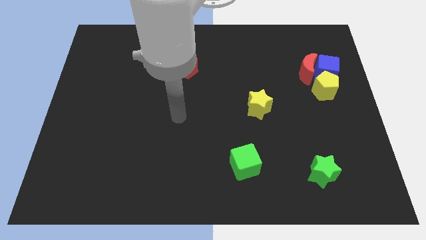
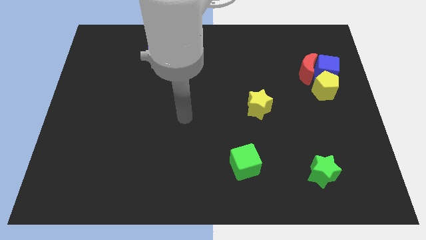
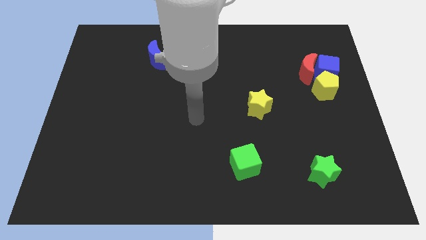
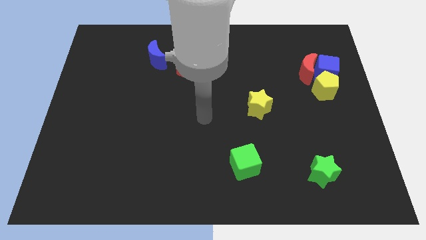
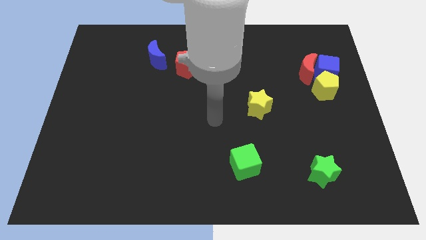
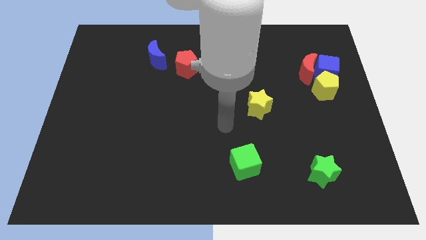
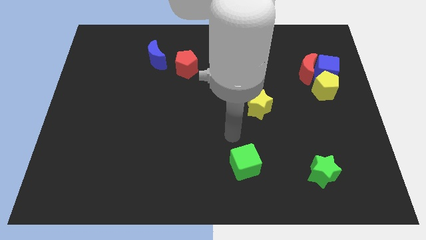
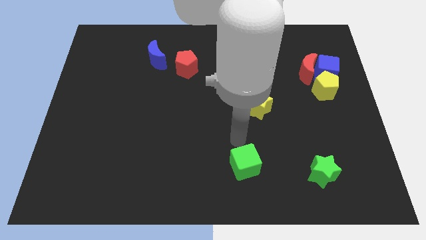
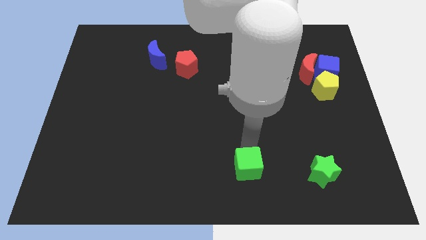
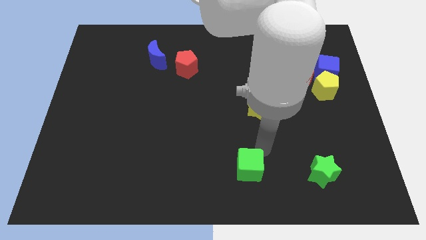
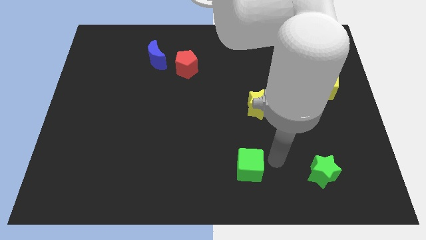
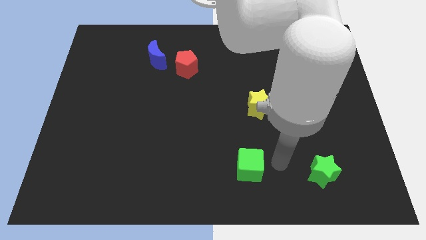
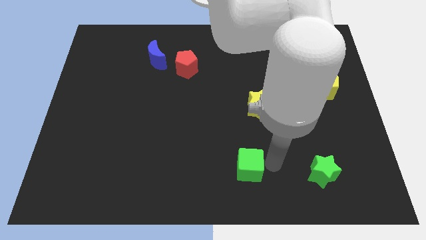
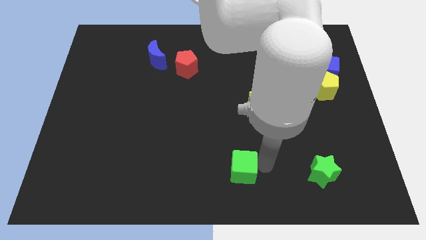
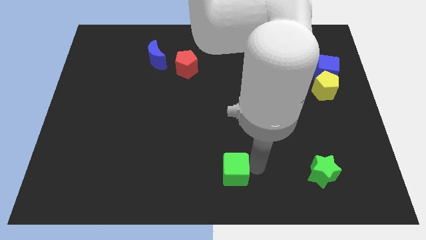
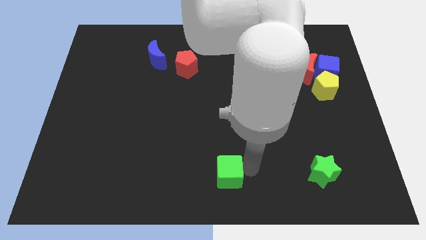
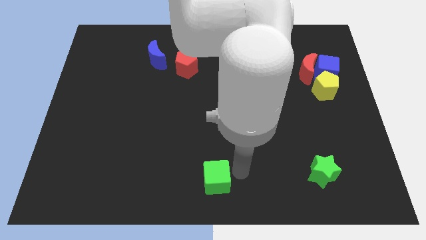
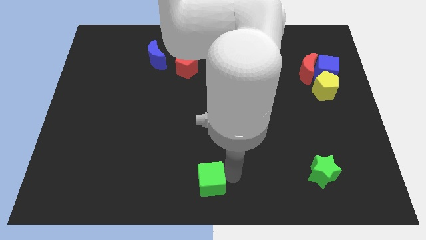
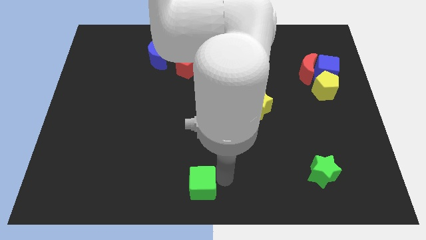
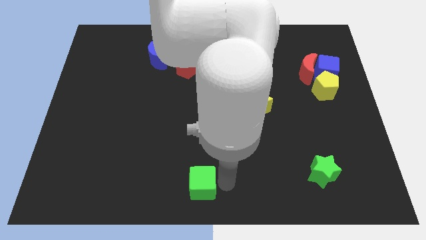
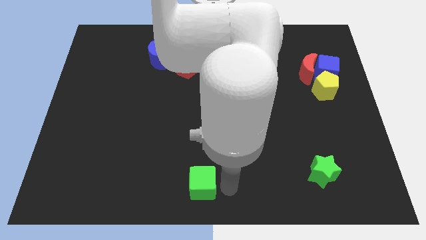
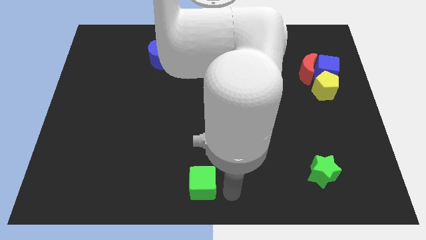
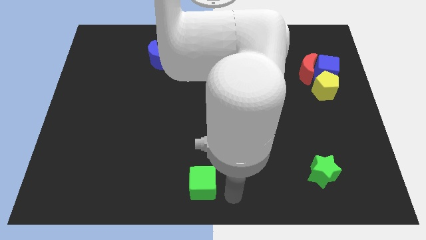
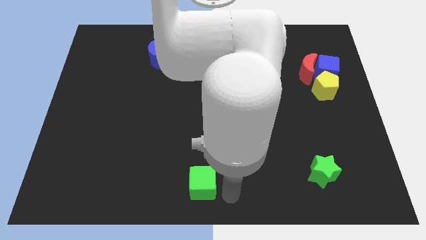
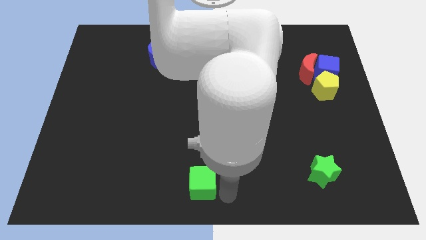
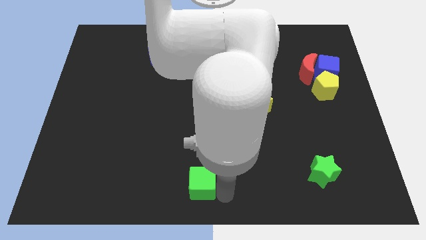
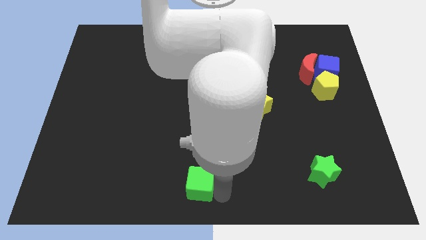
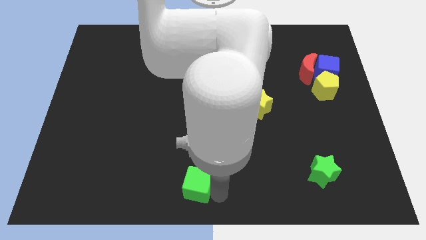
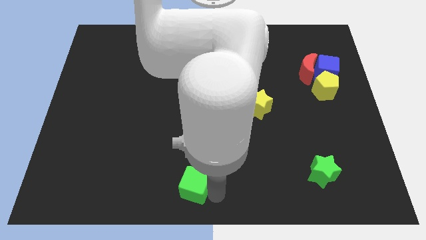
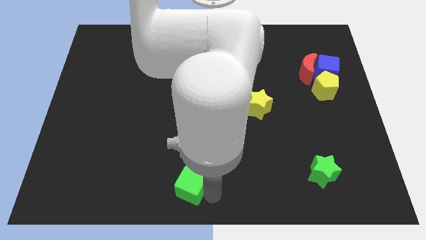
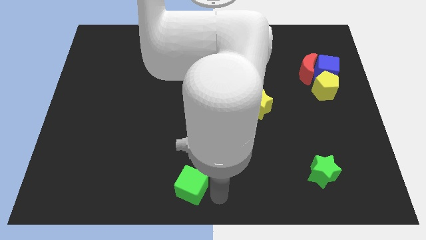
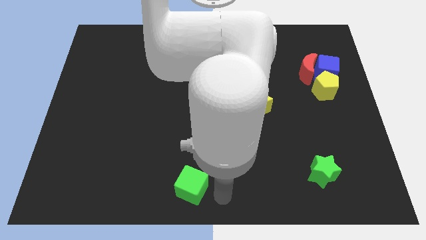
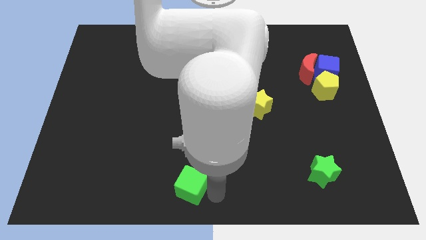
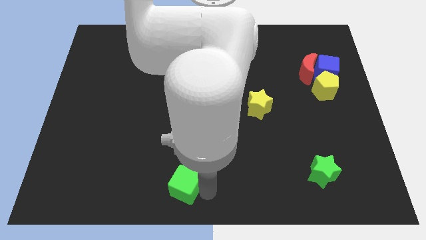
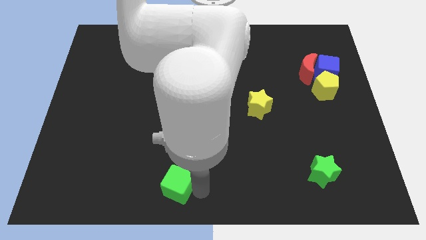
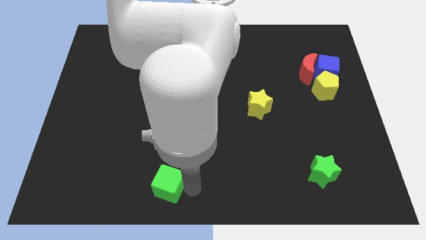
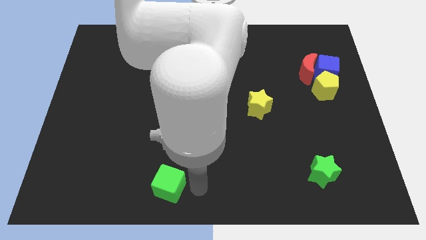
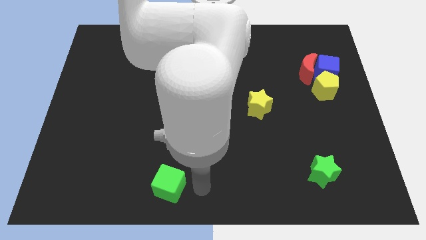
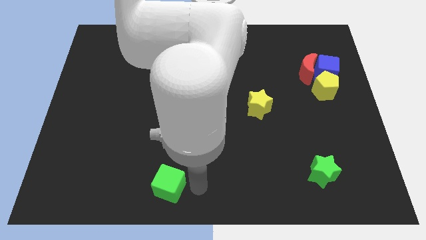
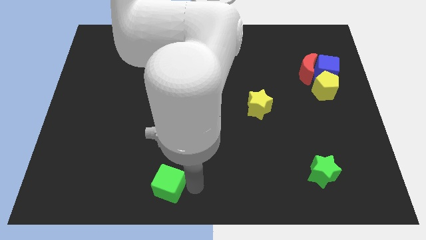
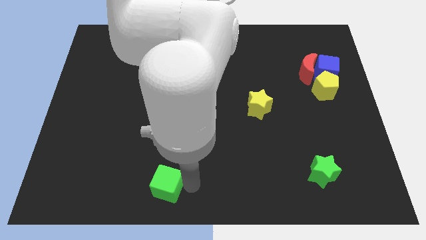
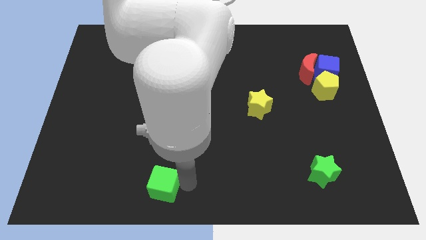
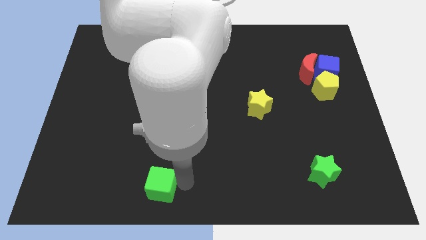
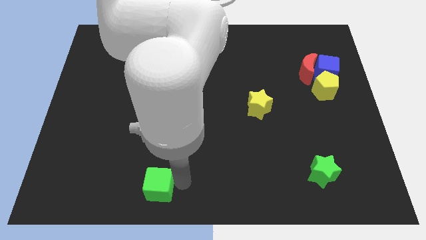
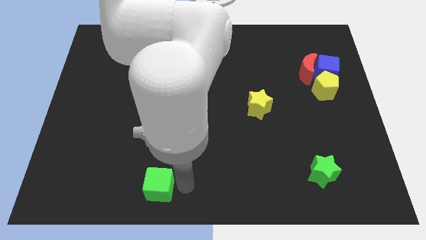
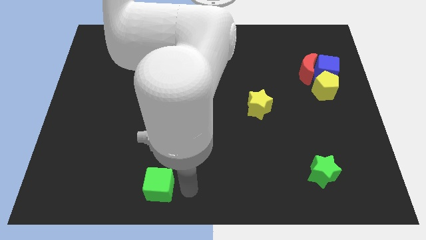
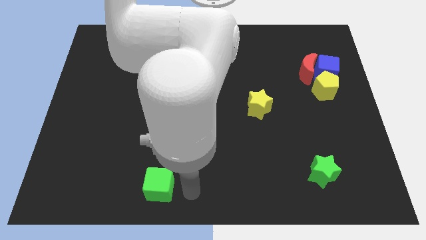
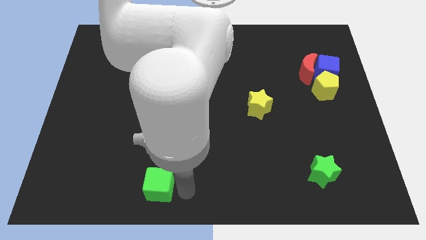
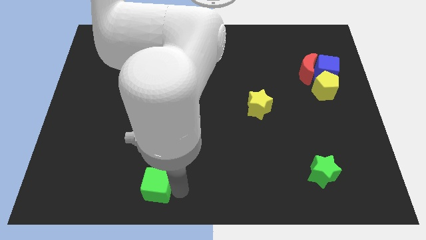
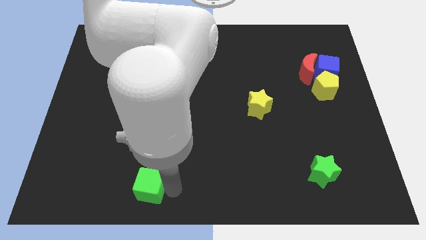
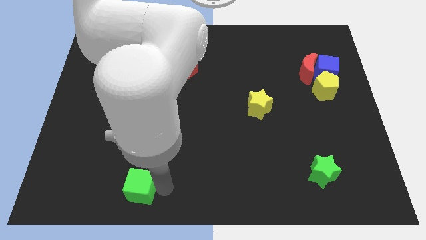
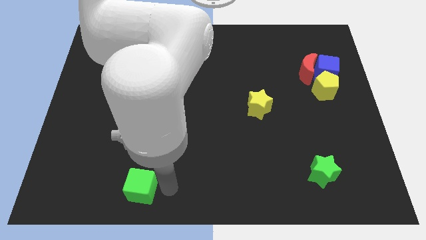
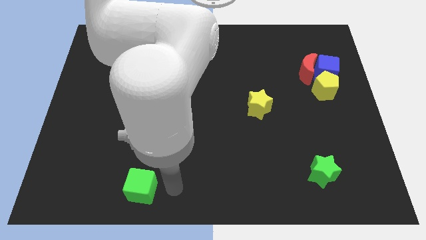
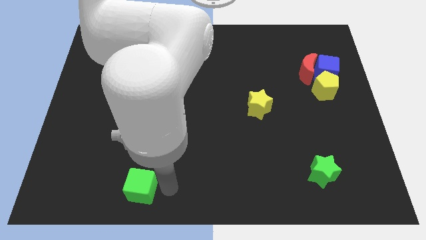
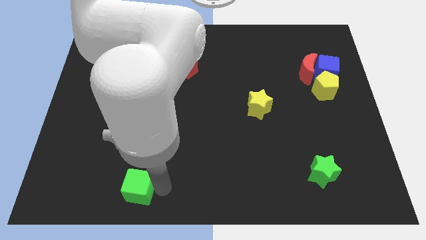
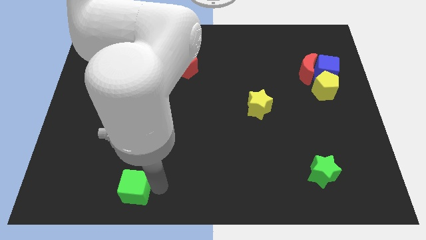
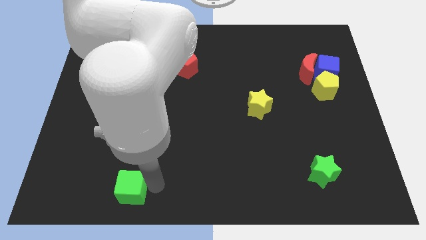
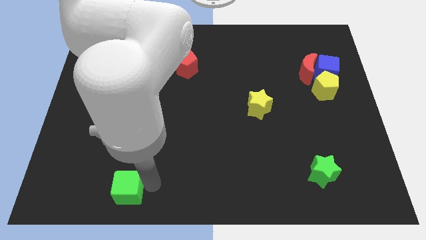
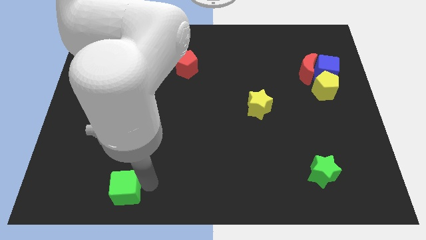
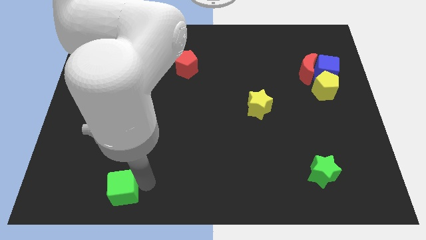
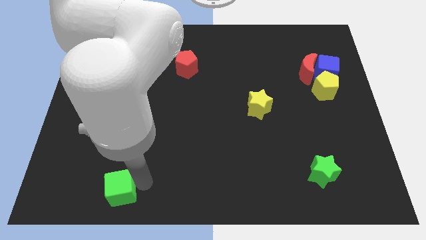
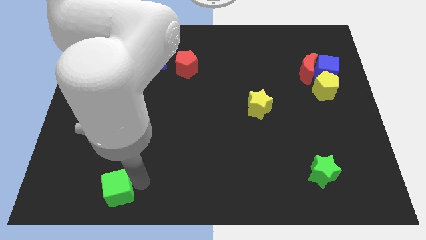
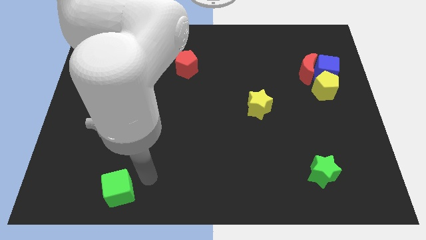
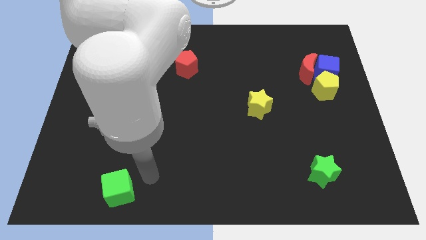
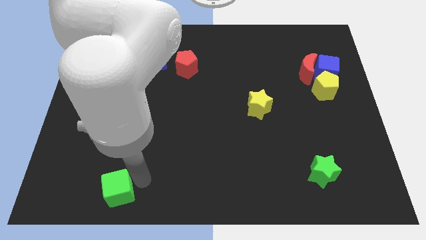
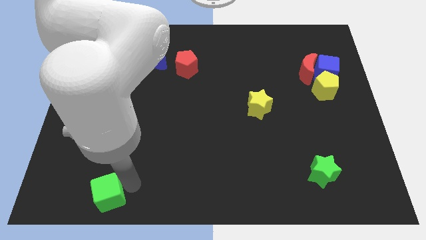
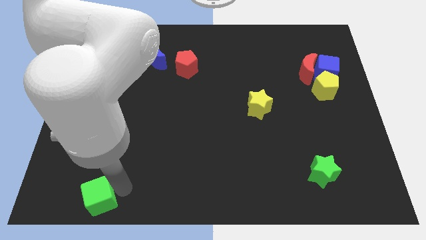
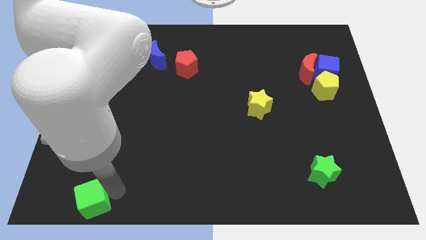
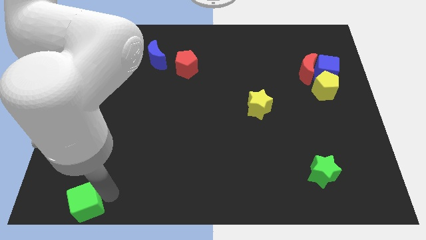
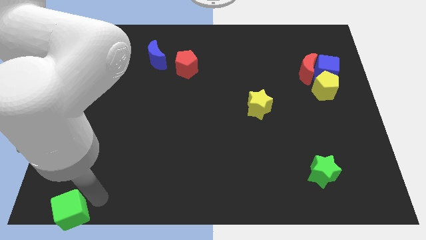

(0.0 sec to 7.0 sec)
slide the green cube to the lower left corner

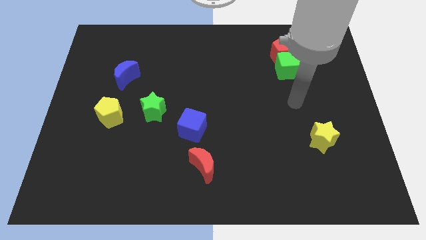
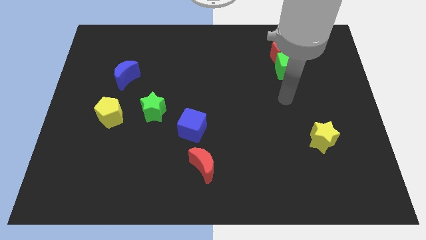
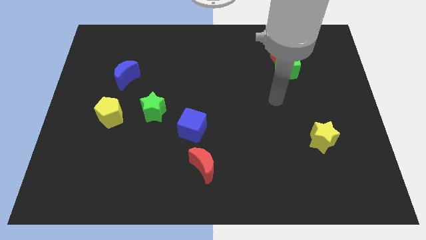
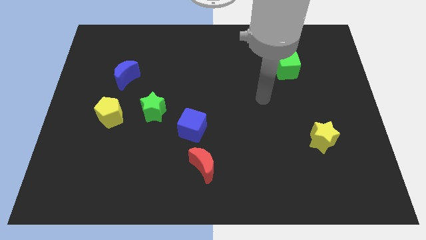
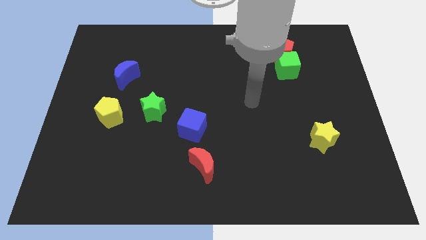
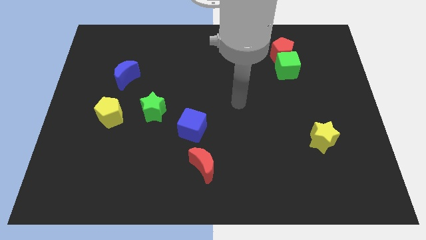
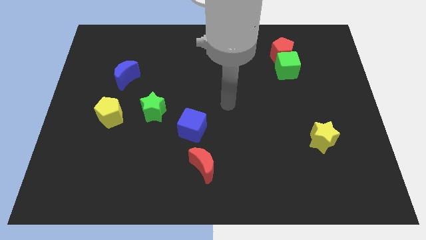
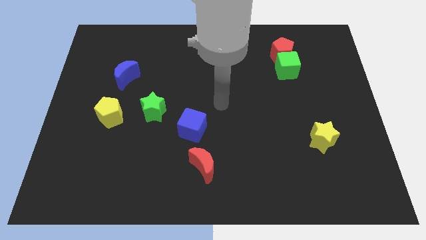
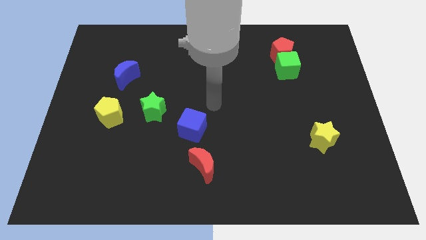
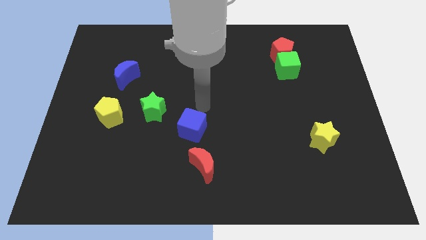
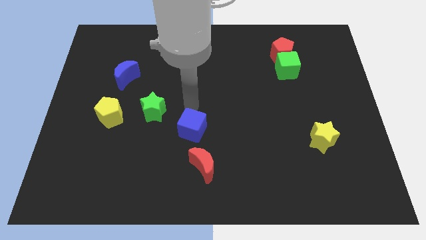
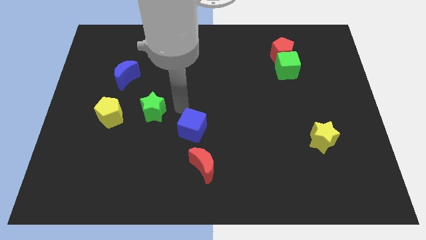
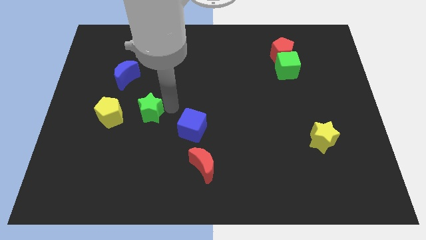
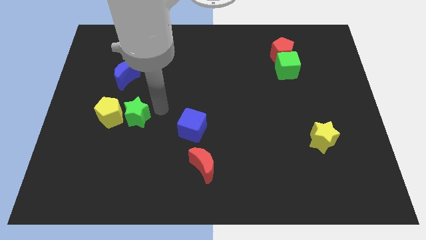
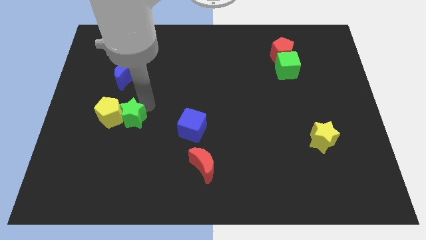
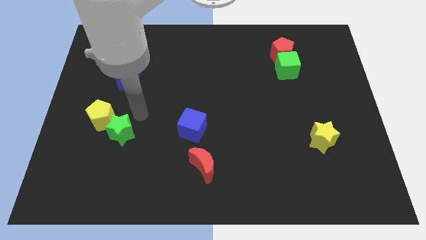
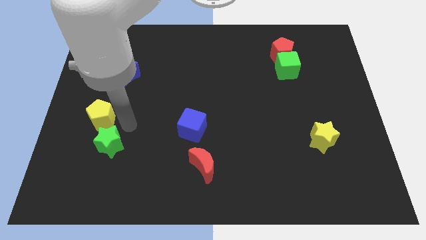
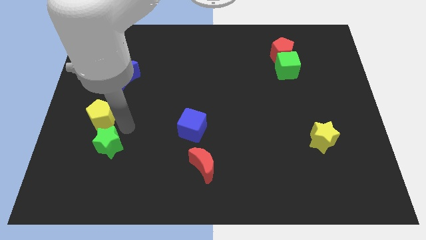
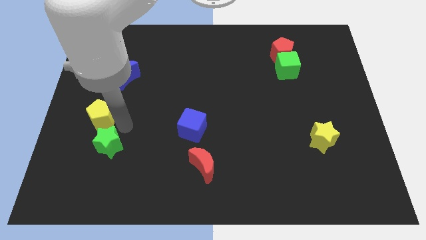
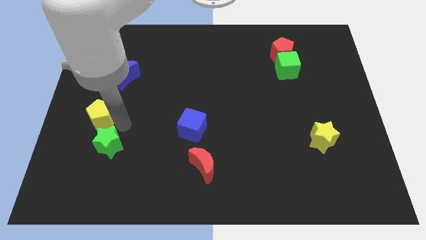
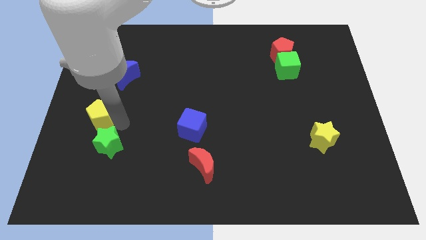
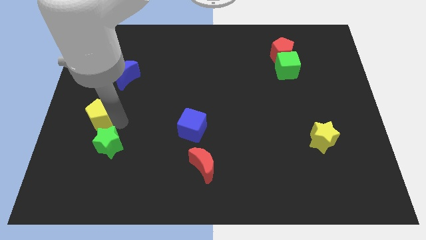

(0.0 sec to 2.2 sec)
slide the yellow pentagon to the left side
